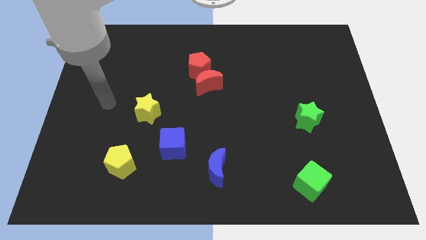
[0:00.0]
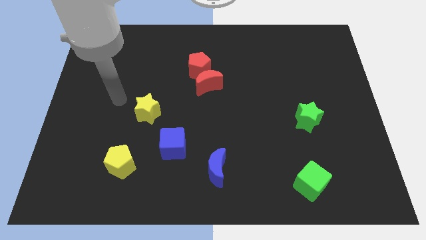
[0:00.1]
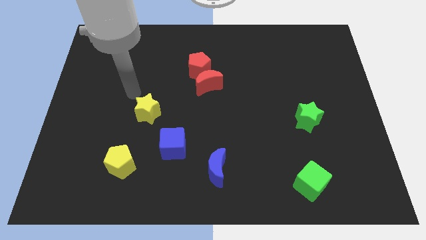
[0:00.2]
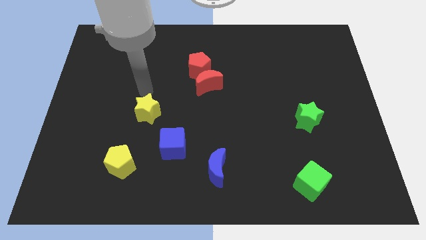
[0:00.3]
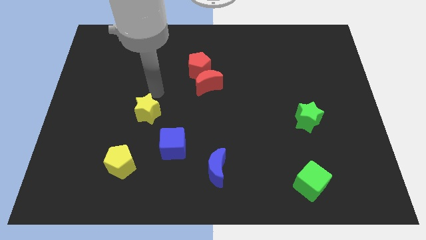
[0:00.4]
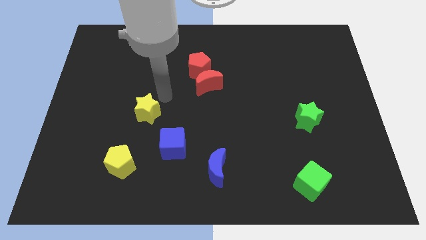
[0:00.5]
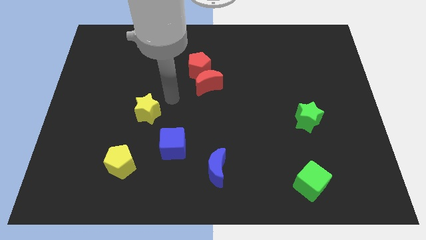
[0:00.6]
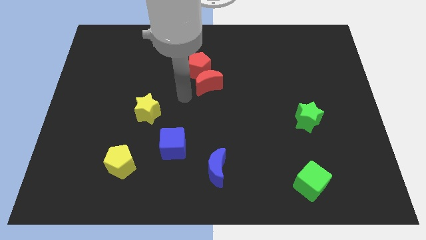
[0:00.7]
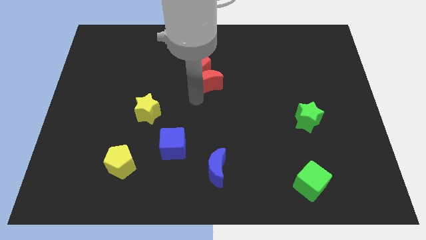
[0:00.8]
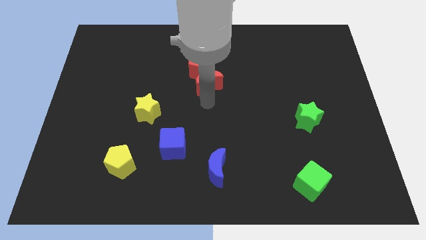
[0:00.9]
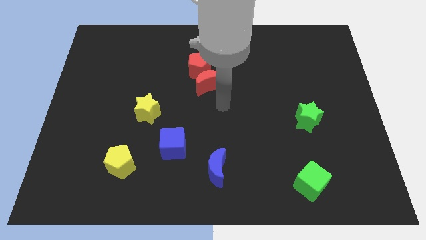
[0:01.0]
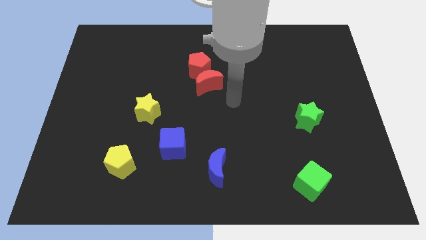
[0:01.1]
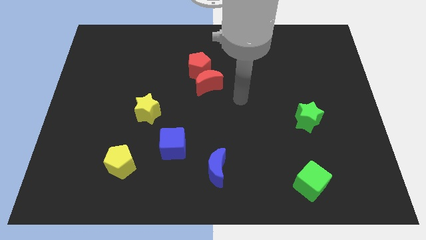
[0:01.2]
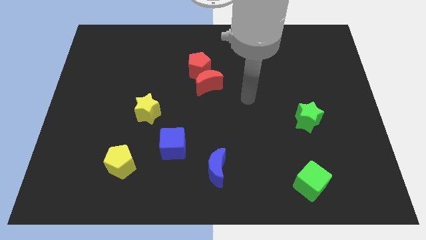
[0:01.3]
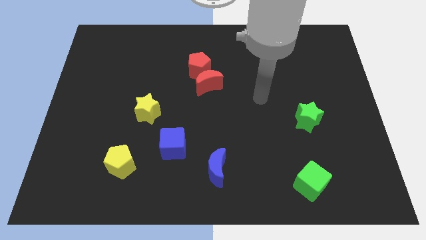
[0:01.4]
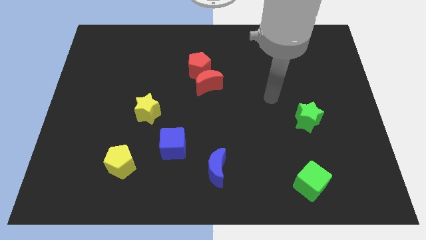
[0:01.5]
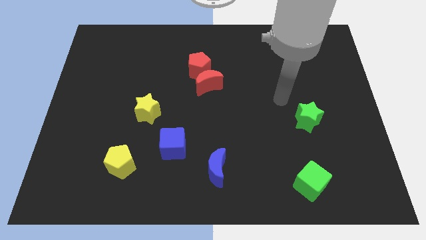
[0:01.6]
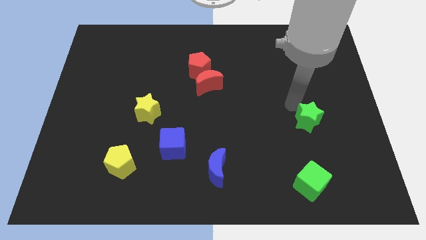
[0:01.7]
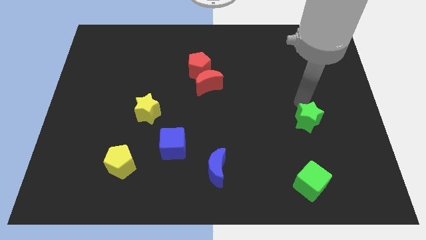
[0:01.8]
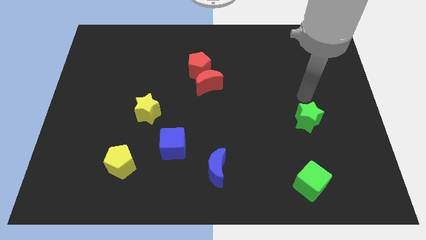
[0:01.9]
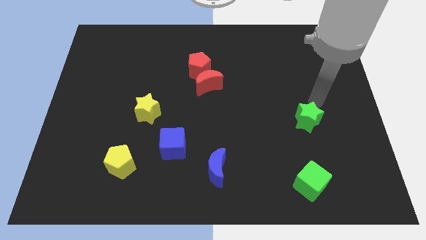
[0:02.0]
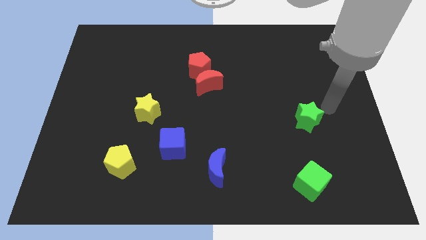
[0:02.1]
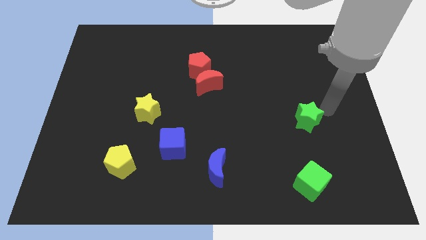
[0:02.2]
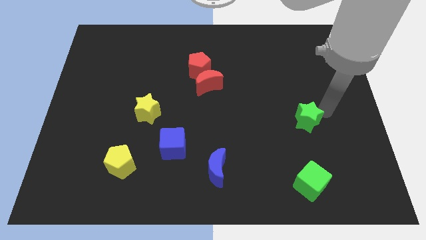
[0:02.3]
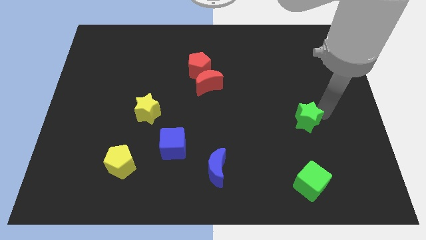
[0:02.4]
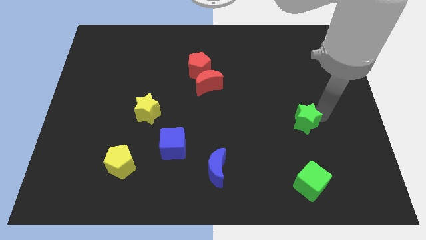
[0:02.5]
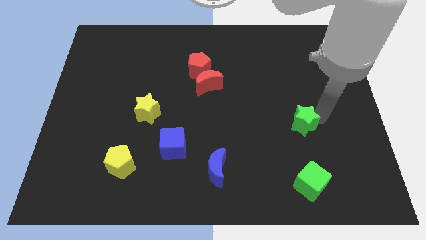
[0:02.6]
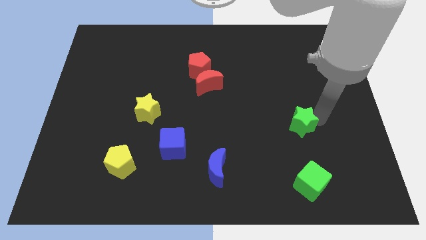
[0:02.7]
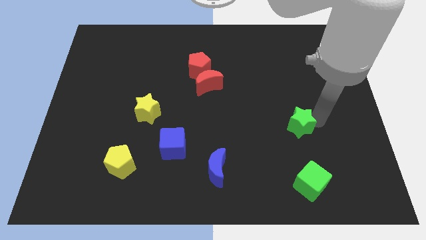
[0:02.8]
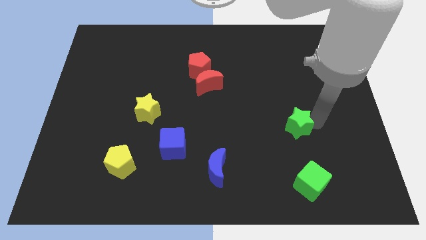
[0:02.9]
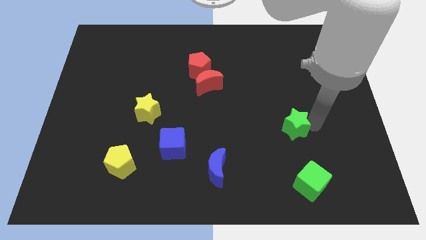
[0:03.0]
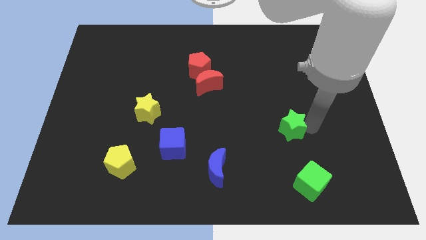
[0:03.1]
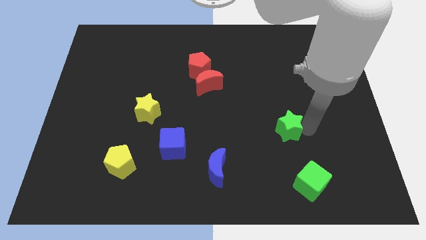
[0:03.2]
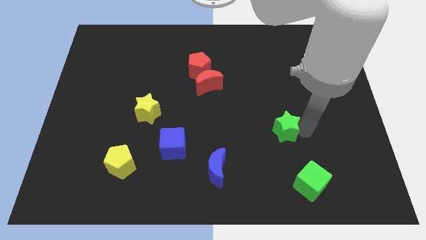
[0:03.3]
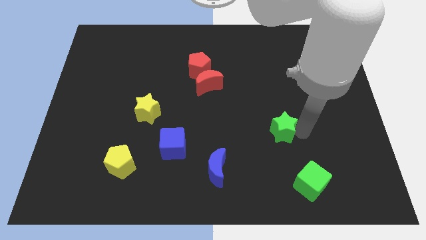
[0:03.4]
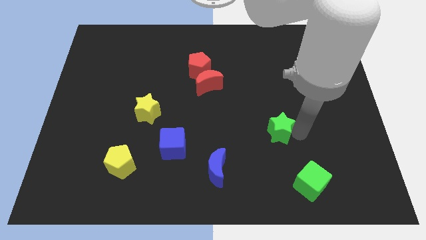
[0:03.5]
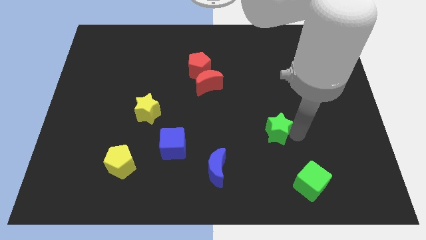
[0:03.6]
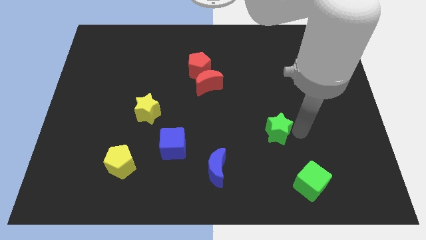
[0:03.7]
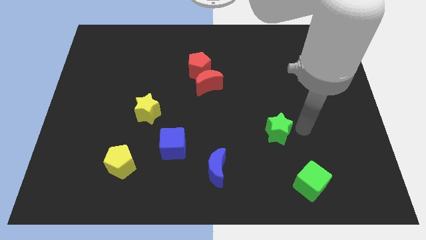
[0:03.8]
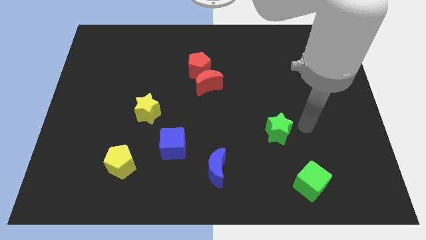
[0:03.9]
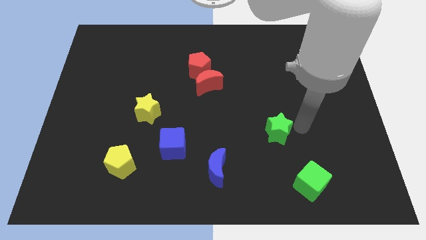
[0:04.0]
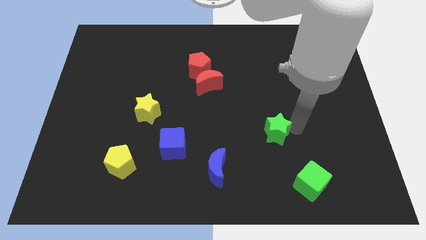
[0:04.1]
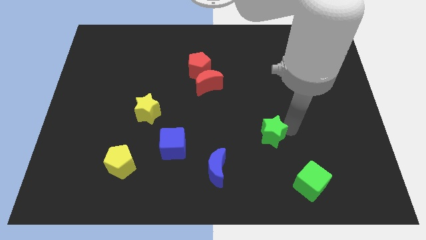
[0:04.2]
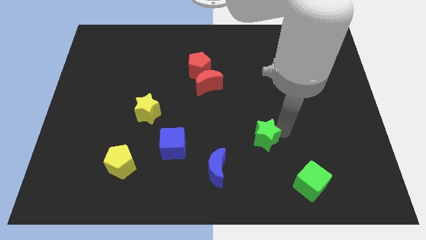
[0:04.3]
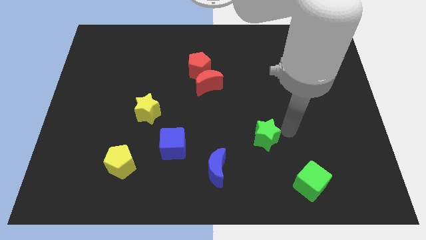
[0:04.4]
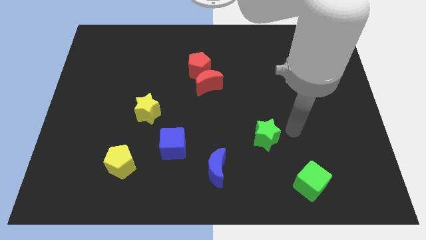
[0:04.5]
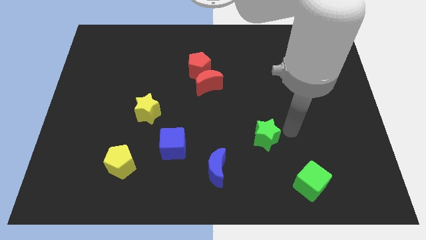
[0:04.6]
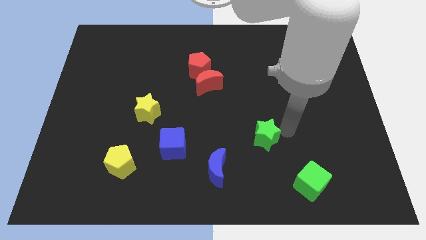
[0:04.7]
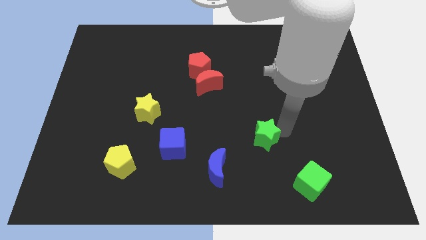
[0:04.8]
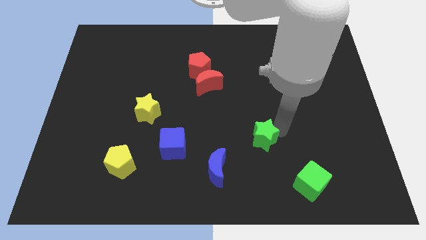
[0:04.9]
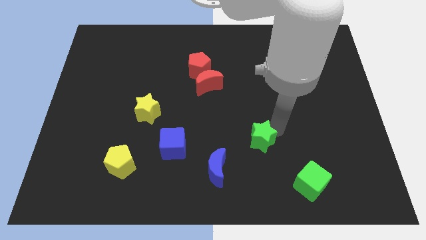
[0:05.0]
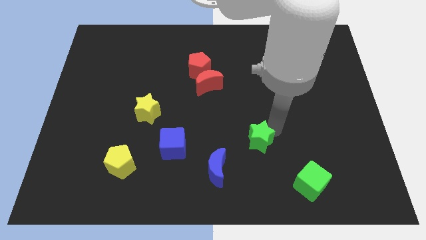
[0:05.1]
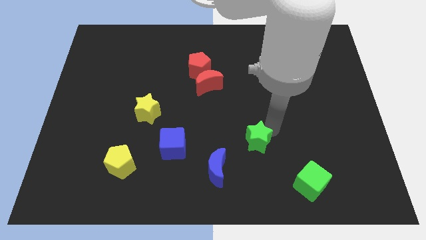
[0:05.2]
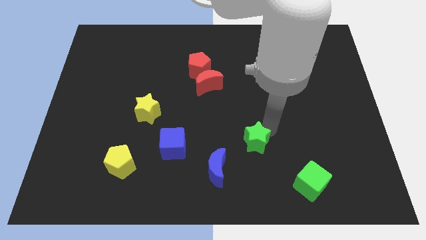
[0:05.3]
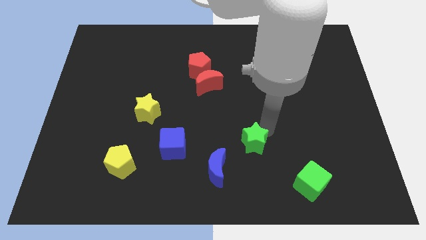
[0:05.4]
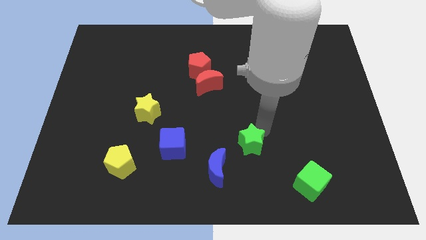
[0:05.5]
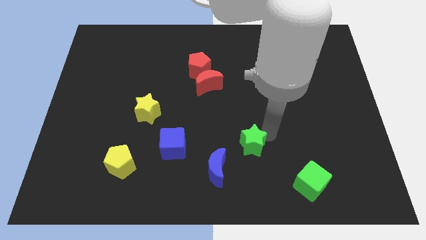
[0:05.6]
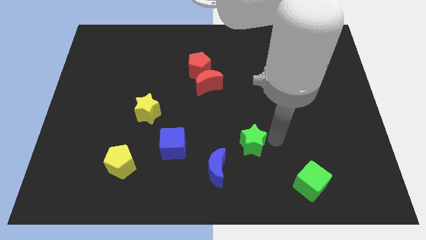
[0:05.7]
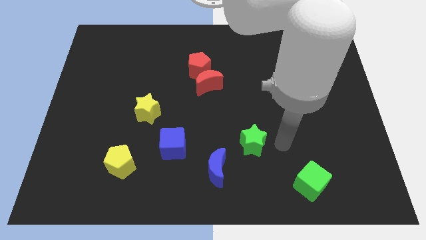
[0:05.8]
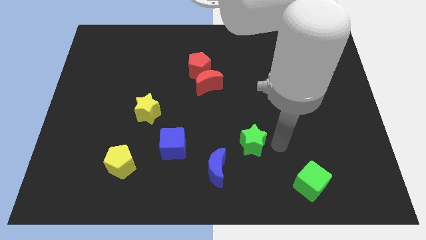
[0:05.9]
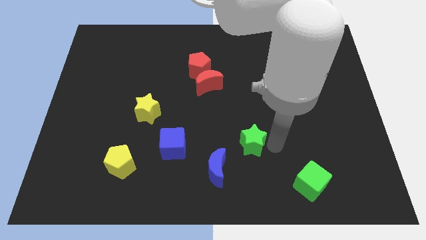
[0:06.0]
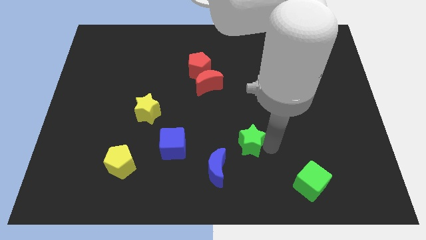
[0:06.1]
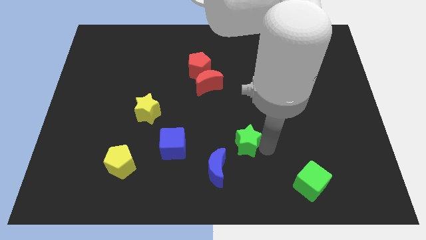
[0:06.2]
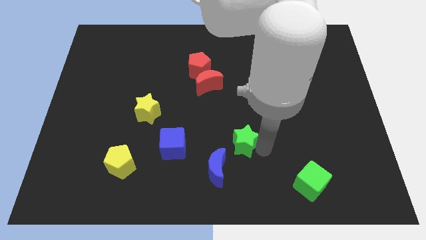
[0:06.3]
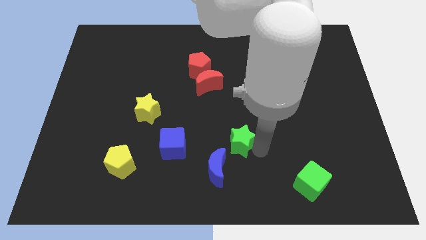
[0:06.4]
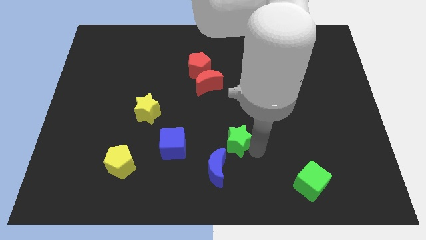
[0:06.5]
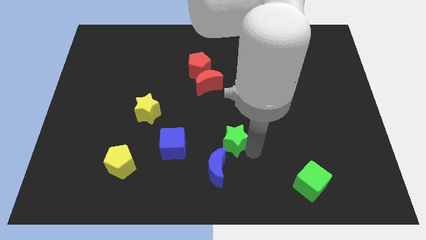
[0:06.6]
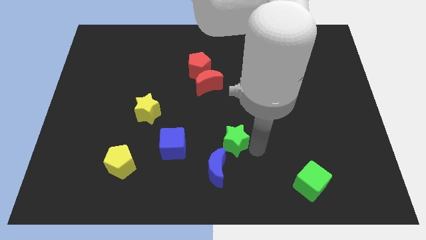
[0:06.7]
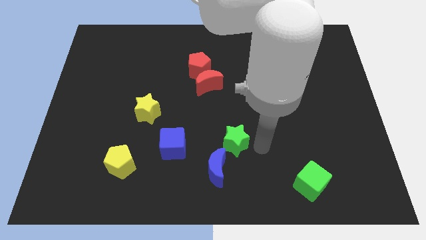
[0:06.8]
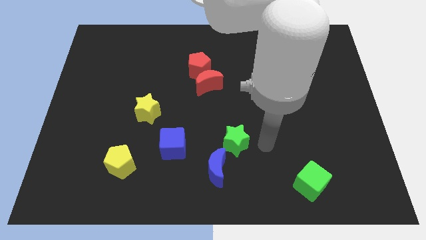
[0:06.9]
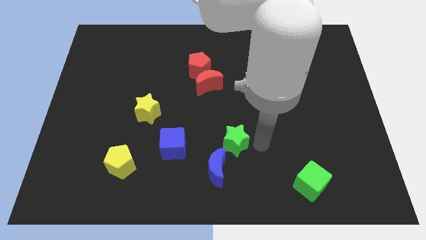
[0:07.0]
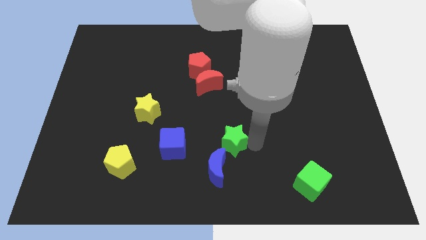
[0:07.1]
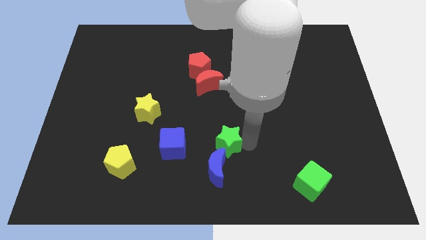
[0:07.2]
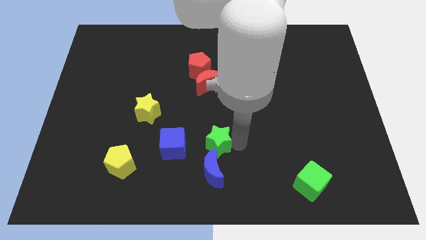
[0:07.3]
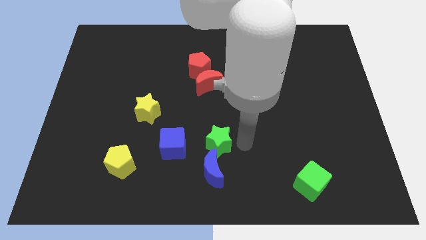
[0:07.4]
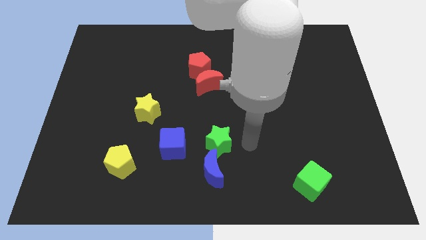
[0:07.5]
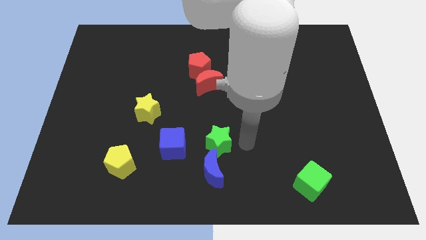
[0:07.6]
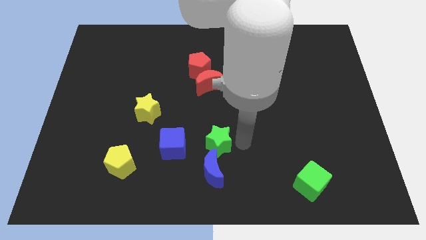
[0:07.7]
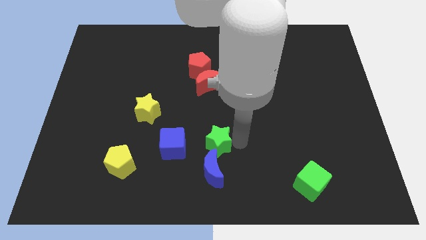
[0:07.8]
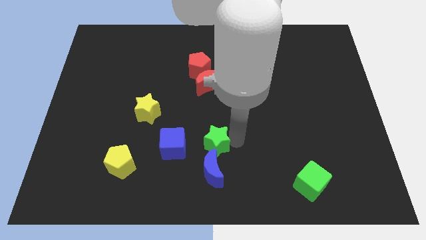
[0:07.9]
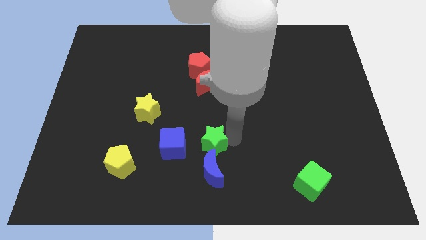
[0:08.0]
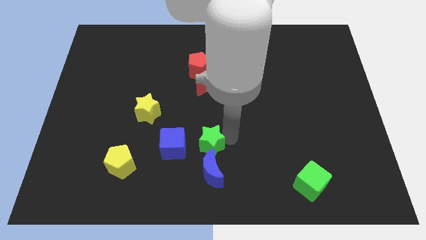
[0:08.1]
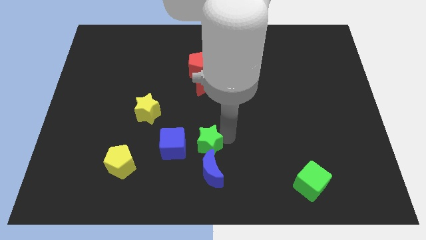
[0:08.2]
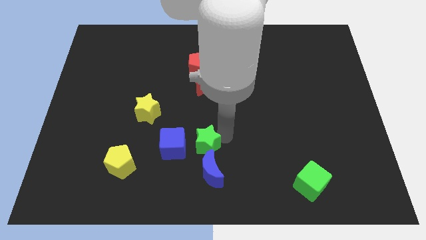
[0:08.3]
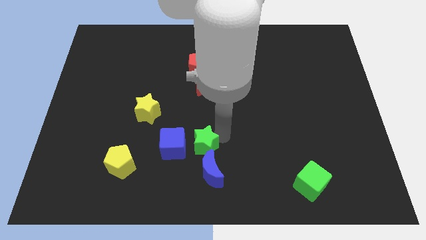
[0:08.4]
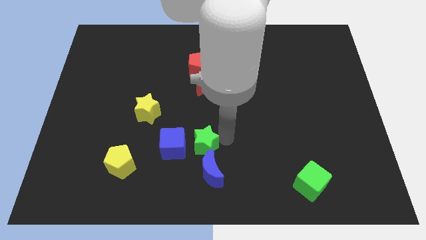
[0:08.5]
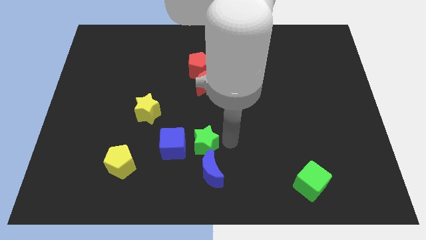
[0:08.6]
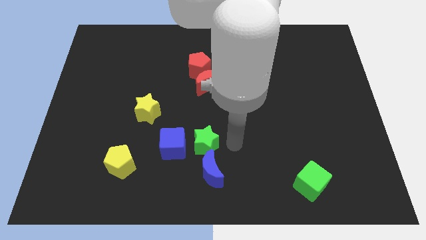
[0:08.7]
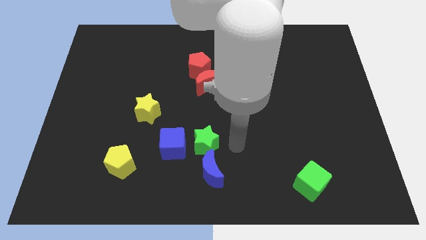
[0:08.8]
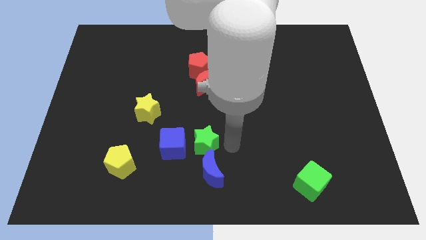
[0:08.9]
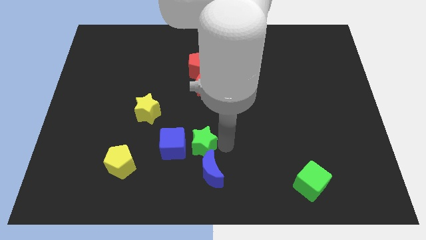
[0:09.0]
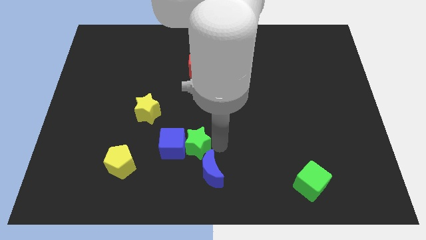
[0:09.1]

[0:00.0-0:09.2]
push the green star to the blue cube
